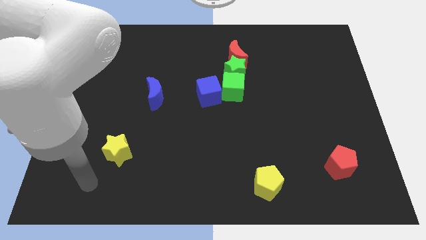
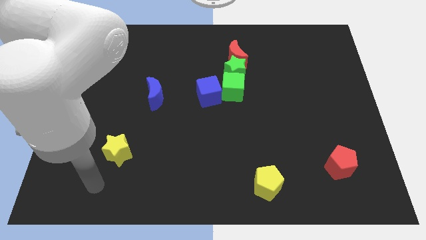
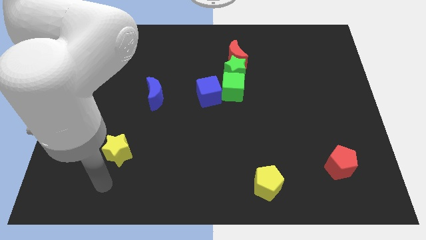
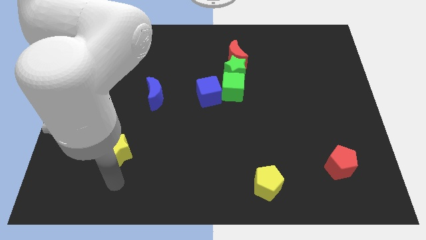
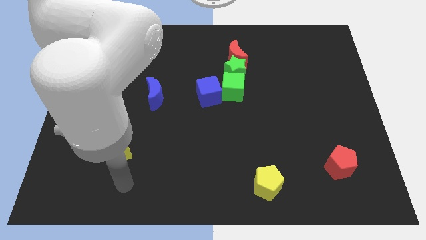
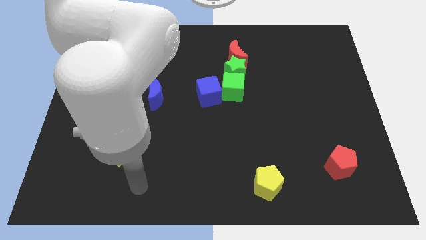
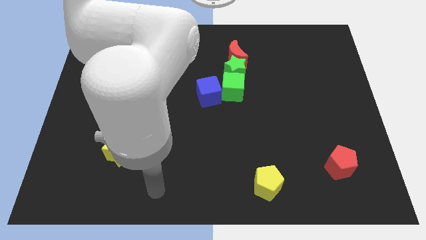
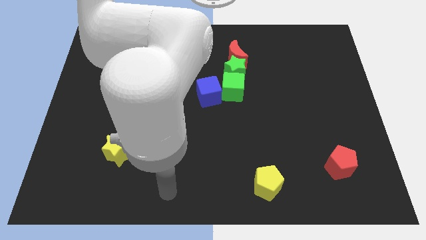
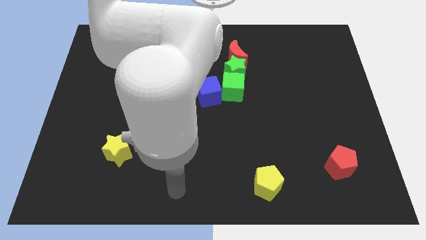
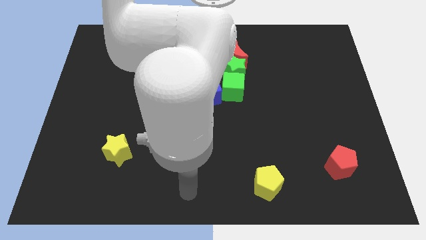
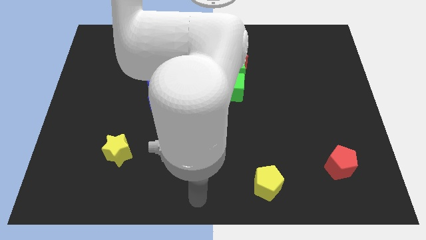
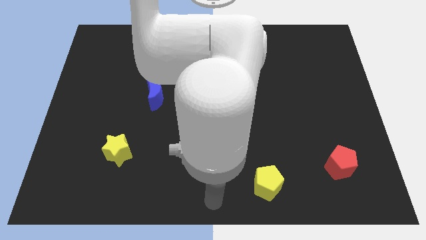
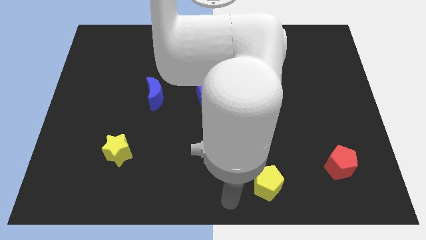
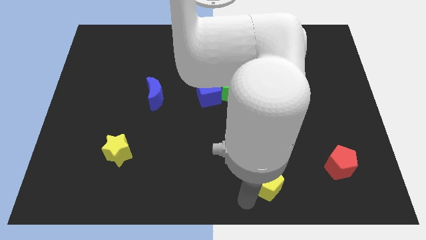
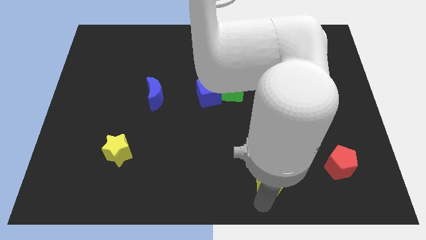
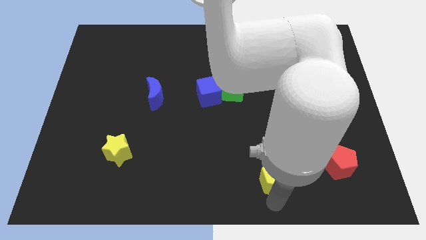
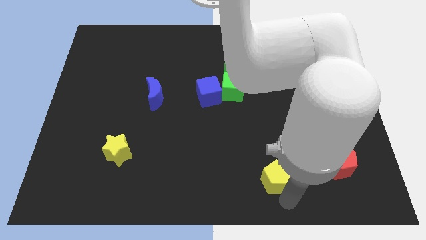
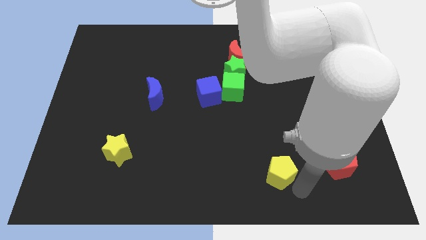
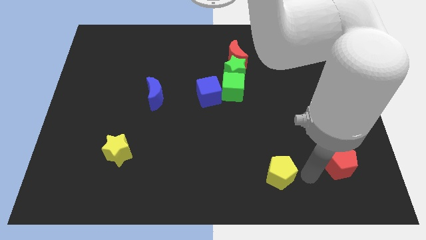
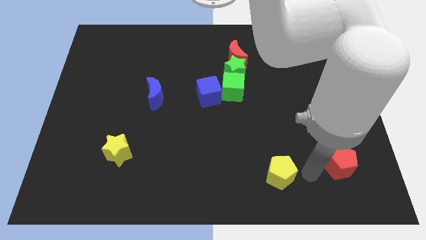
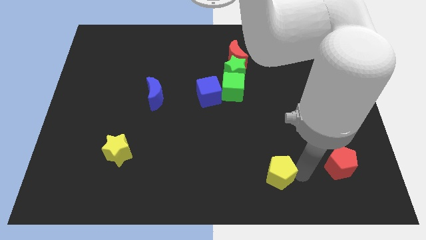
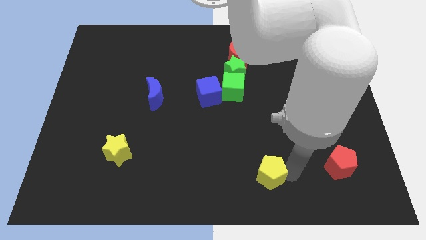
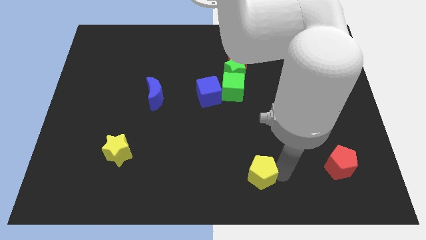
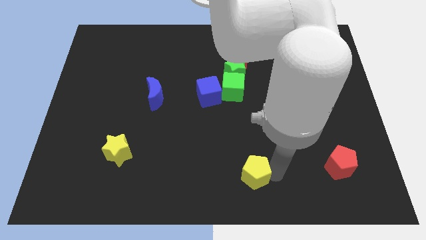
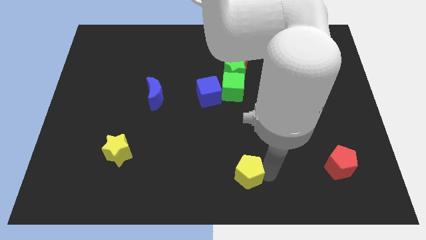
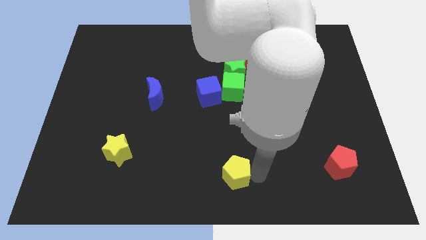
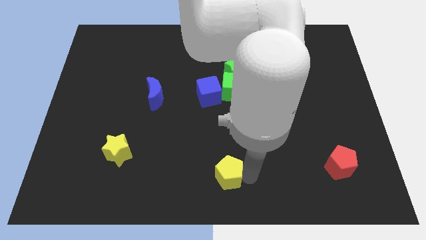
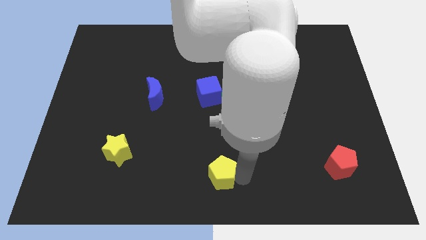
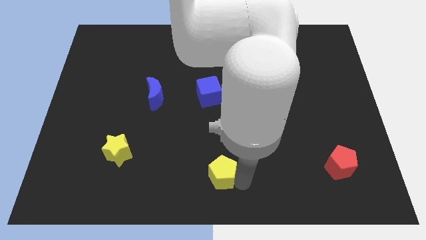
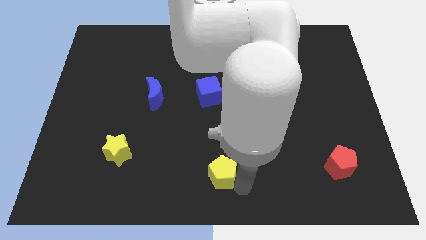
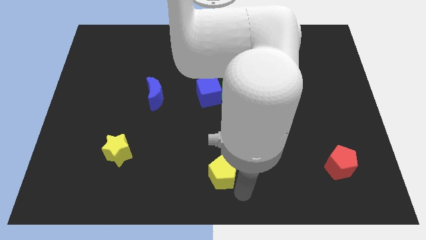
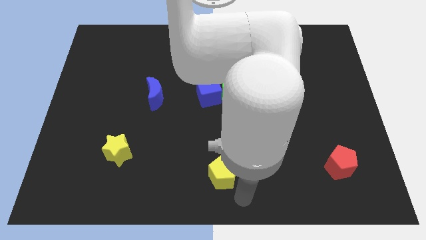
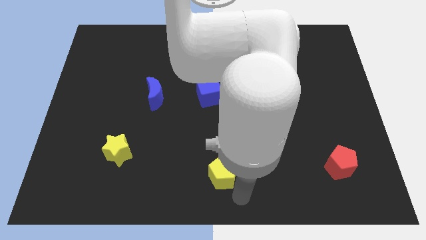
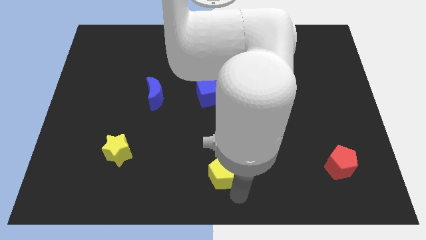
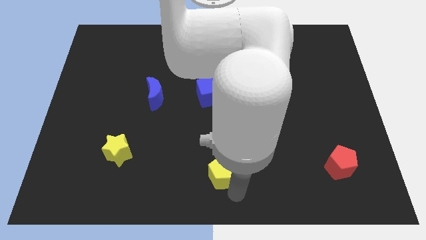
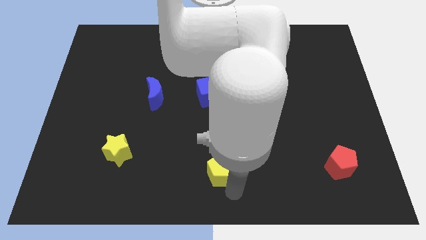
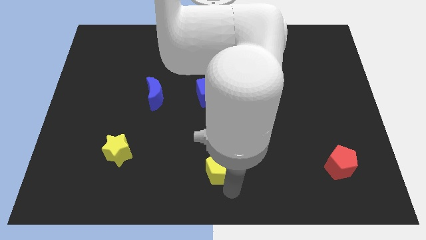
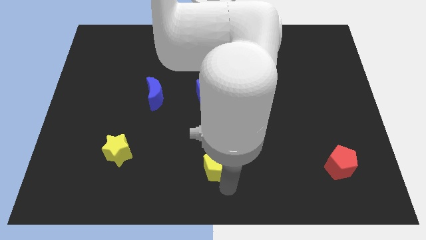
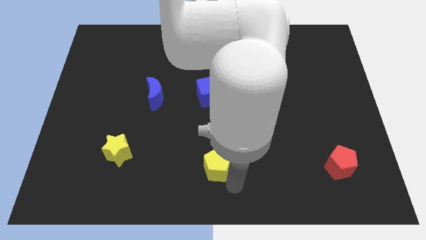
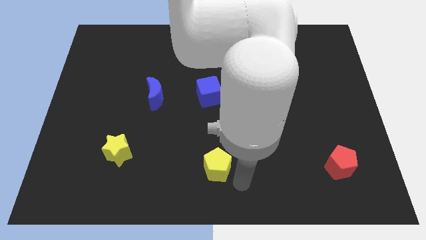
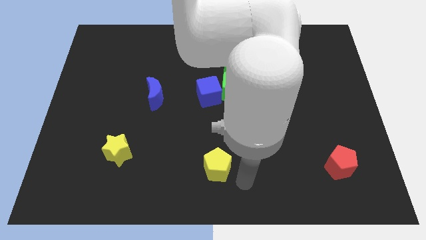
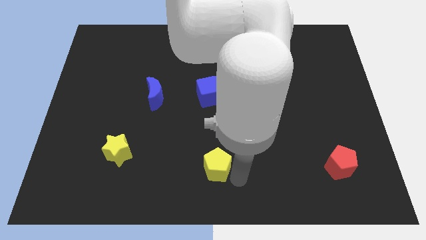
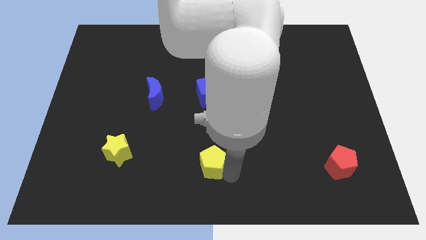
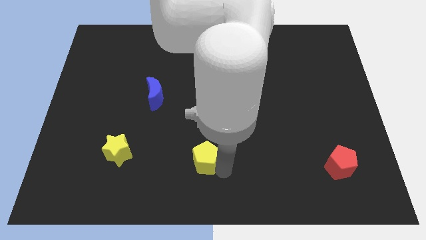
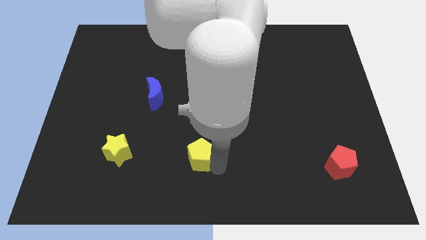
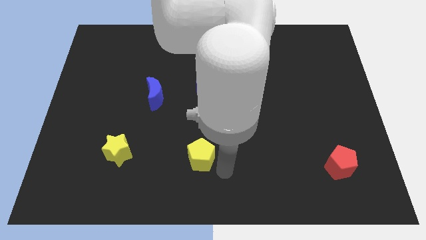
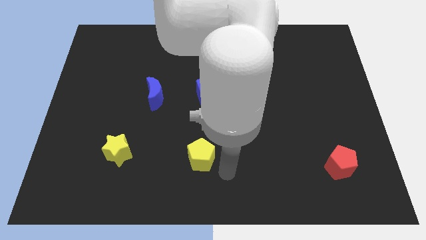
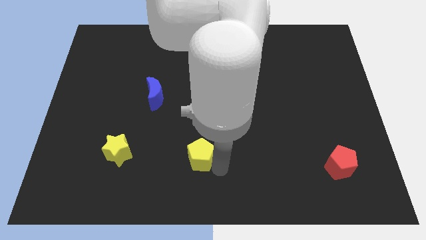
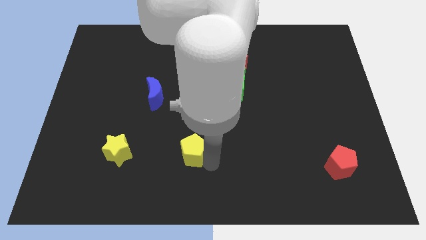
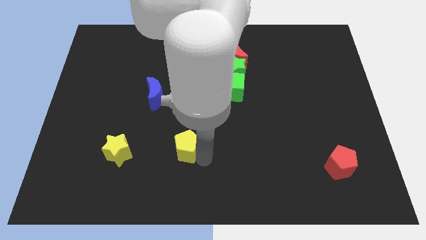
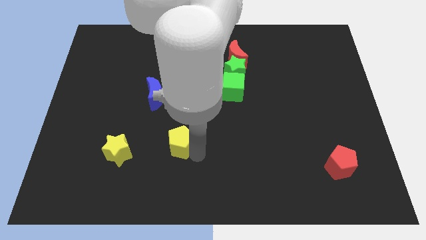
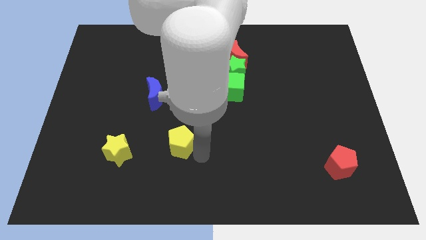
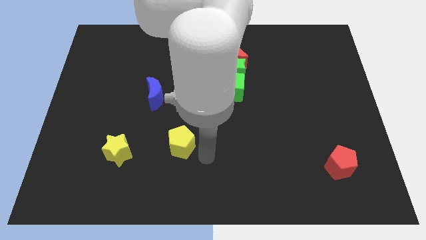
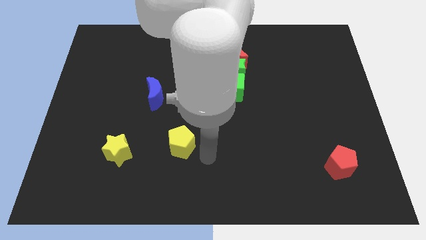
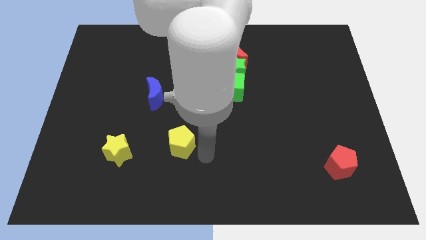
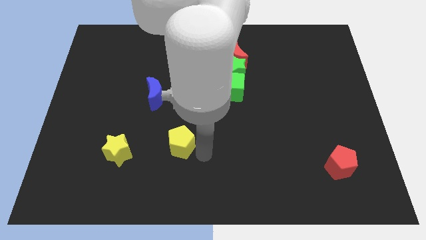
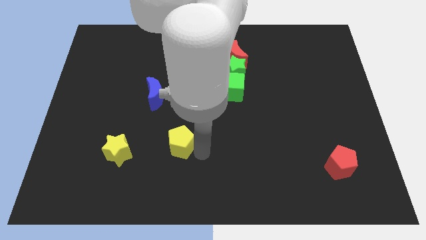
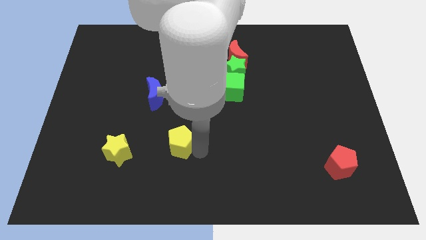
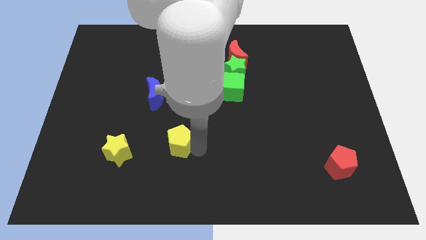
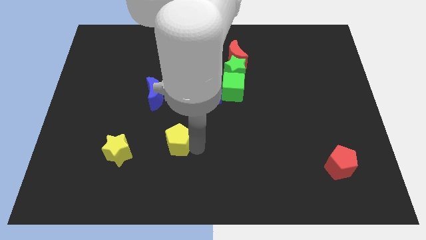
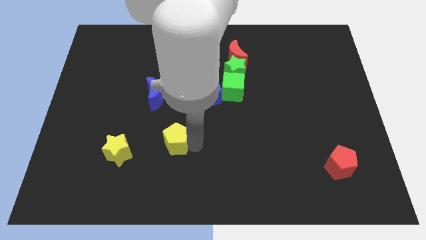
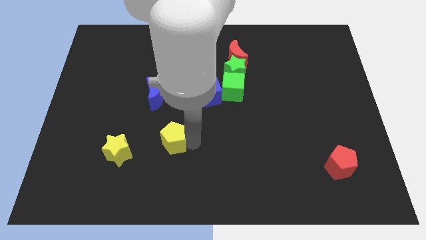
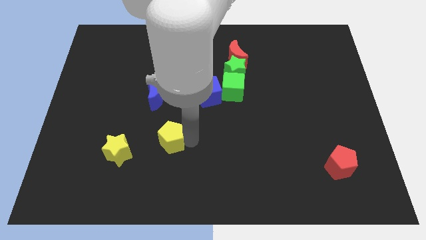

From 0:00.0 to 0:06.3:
slide the yellow pentagon below the blue moon
